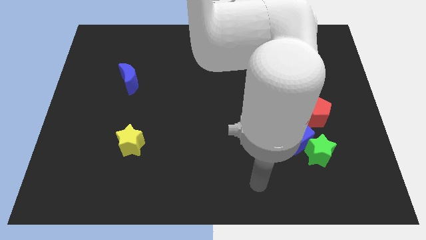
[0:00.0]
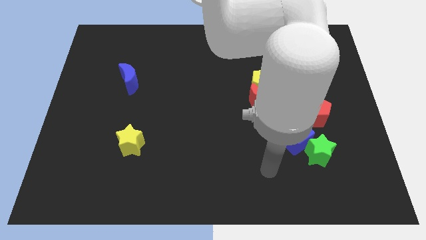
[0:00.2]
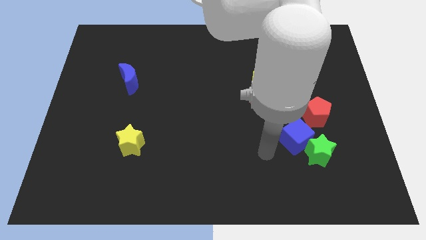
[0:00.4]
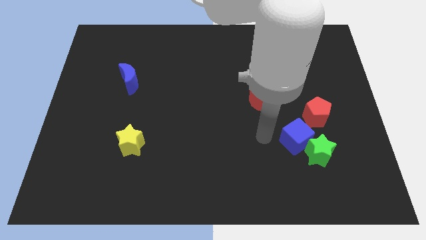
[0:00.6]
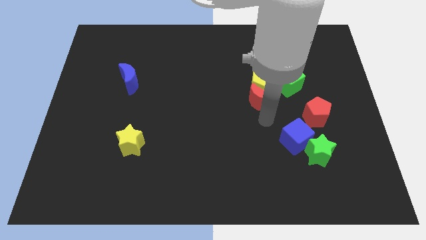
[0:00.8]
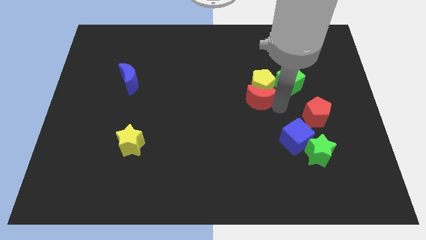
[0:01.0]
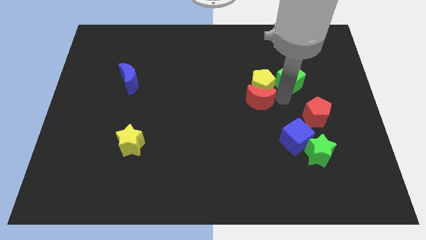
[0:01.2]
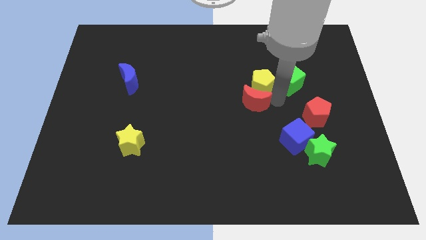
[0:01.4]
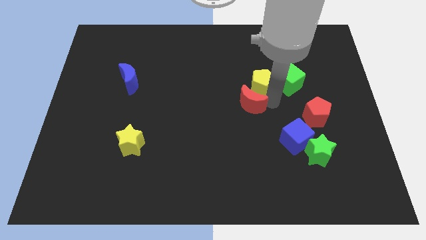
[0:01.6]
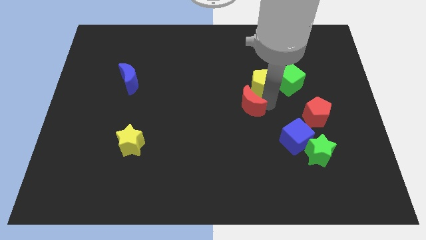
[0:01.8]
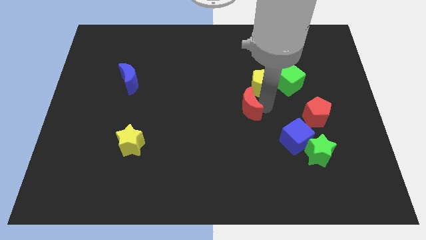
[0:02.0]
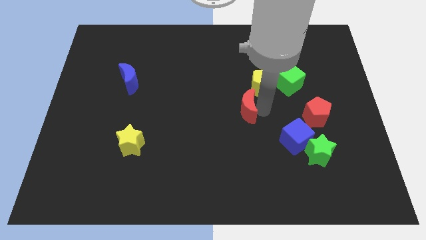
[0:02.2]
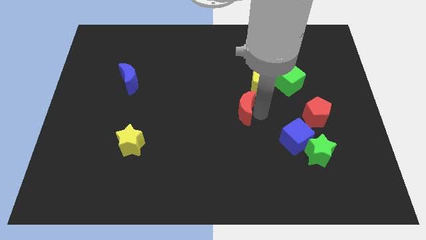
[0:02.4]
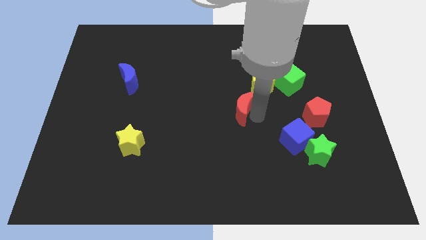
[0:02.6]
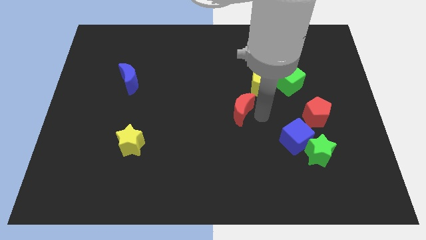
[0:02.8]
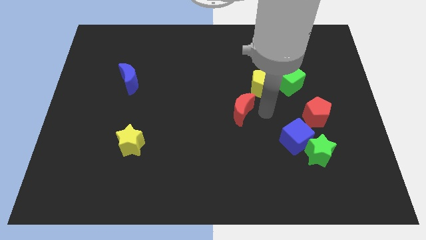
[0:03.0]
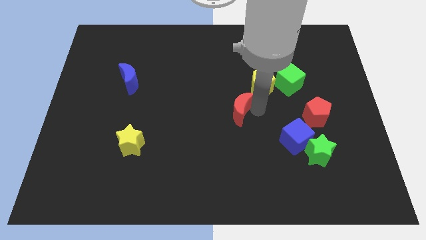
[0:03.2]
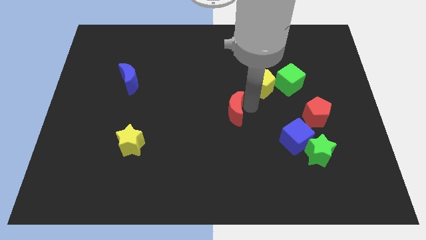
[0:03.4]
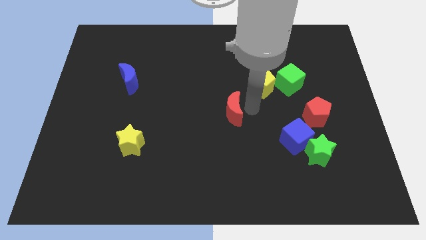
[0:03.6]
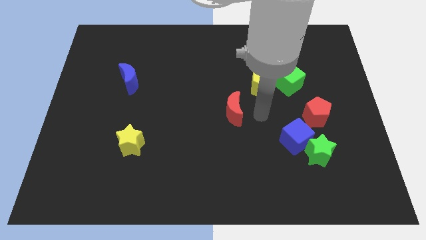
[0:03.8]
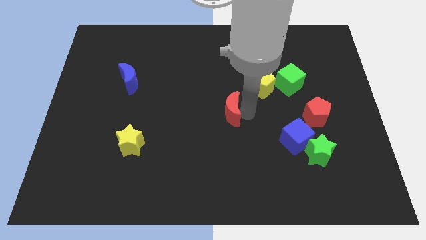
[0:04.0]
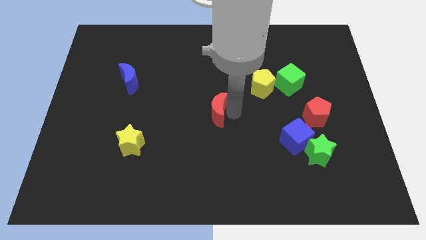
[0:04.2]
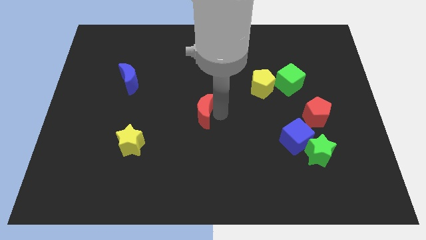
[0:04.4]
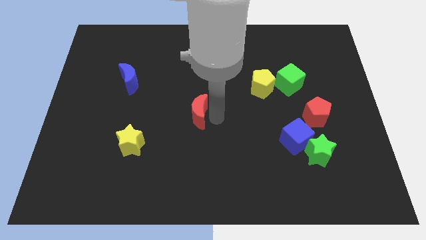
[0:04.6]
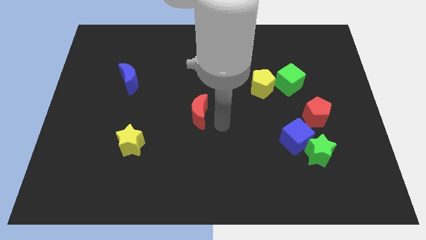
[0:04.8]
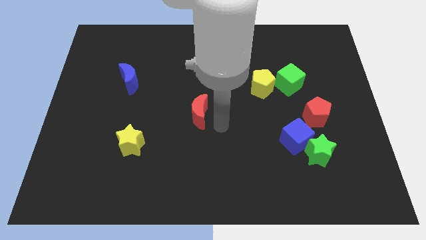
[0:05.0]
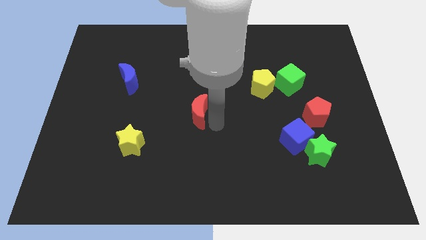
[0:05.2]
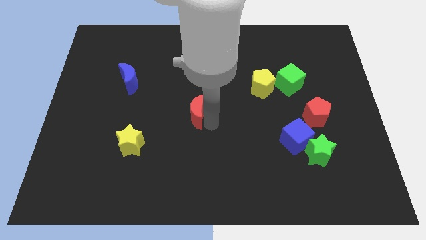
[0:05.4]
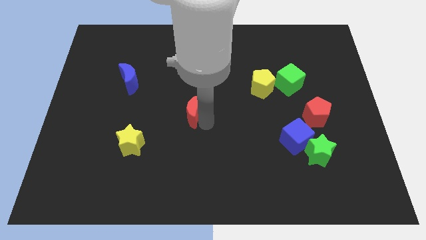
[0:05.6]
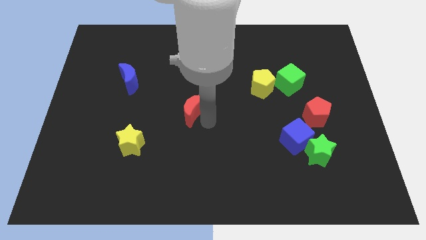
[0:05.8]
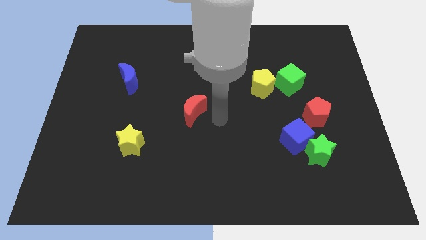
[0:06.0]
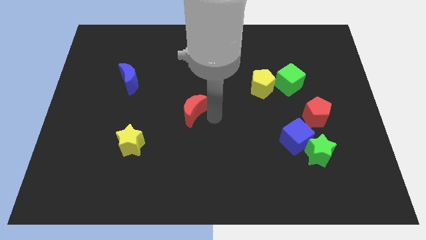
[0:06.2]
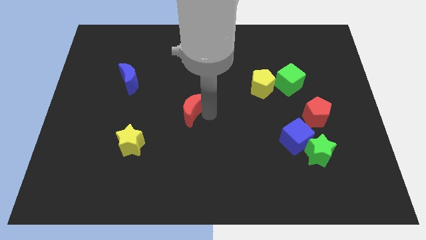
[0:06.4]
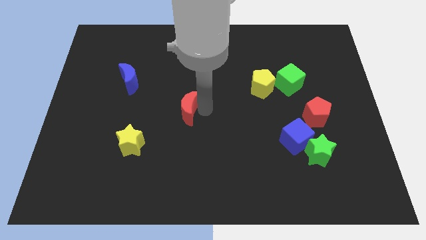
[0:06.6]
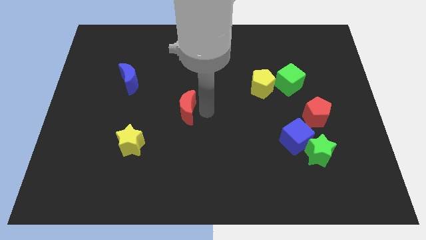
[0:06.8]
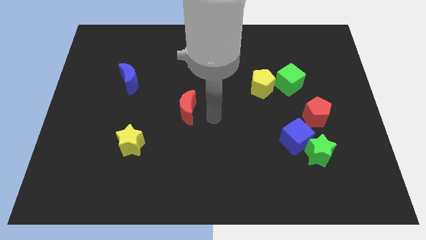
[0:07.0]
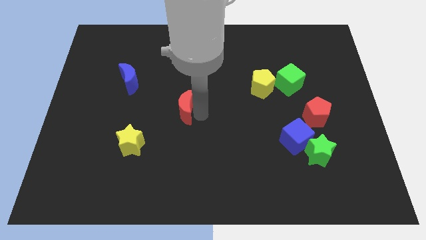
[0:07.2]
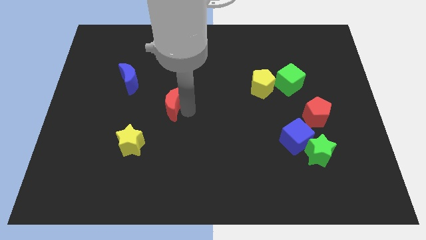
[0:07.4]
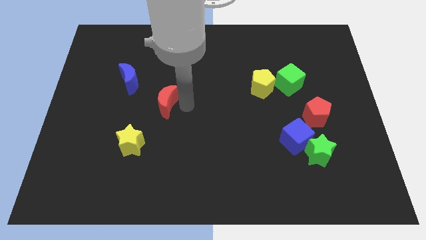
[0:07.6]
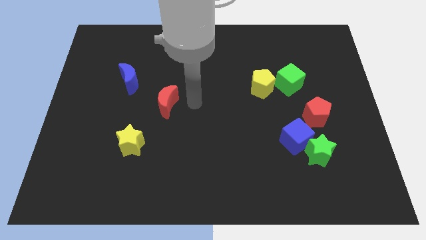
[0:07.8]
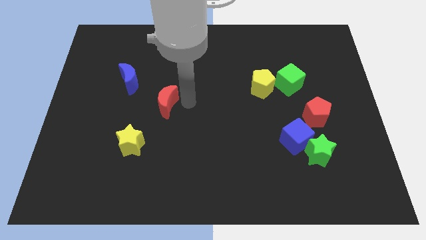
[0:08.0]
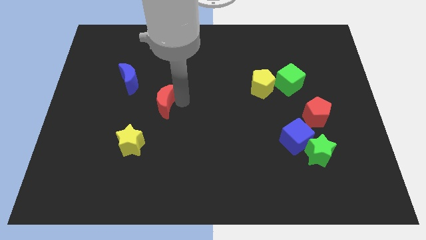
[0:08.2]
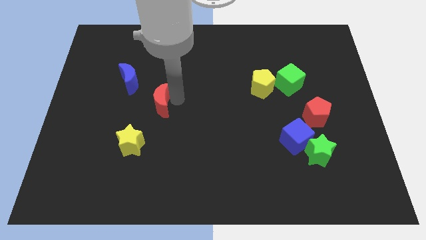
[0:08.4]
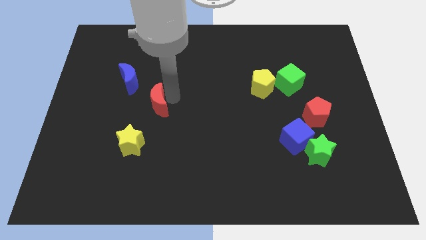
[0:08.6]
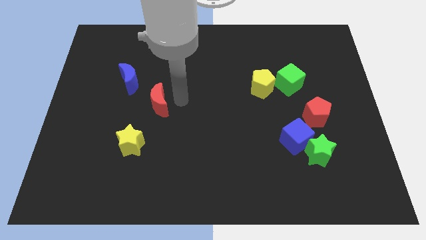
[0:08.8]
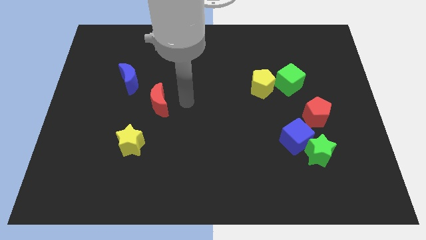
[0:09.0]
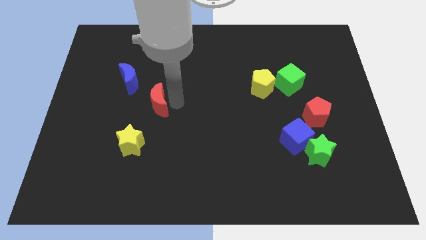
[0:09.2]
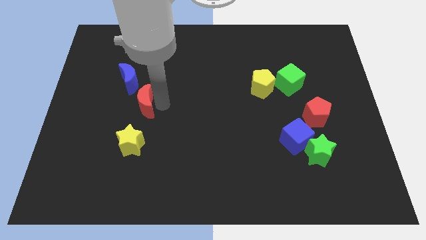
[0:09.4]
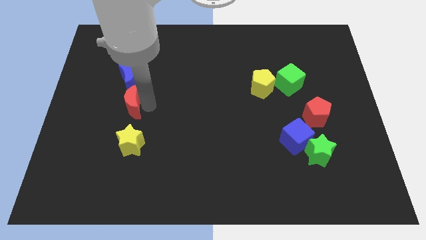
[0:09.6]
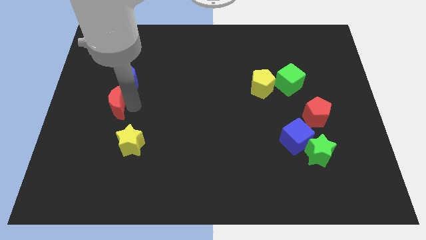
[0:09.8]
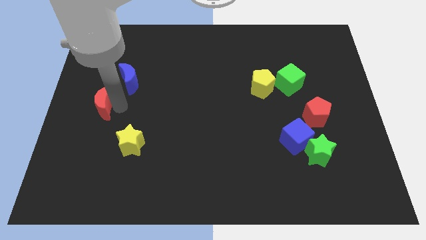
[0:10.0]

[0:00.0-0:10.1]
move the red moon to the left side of the board
